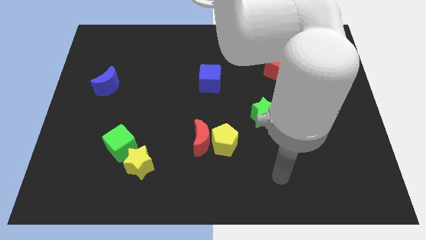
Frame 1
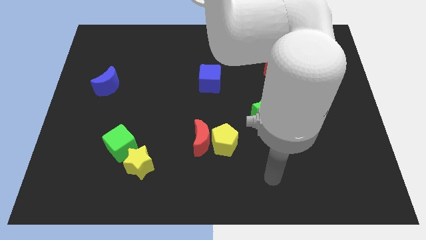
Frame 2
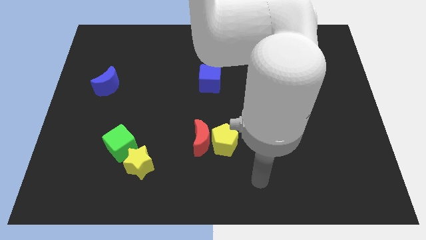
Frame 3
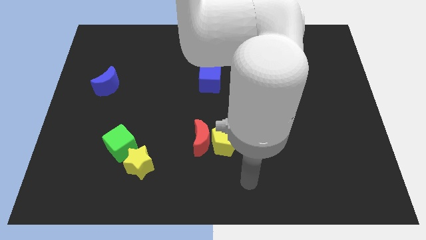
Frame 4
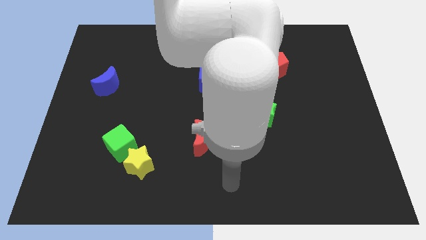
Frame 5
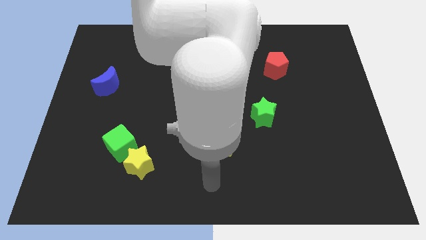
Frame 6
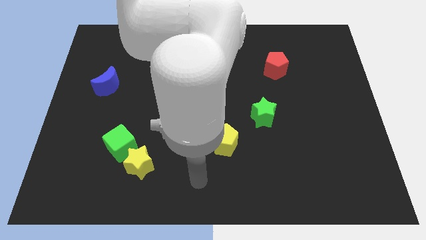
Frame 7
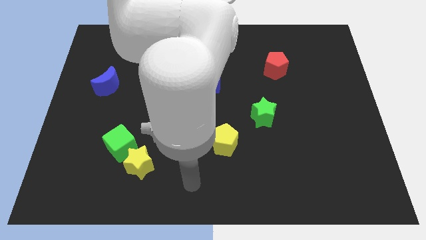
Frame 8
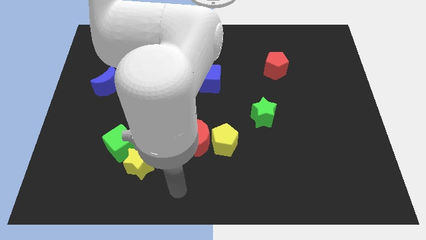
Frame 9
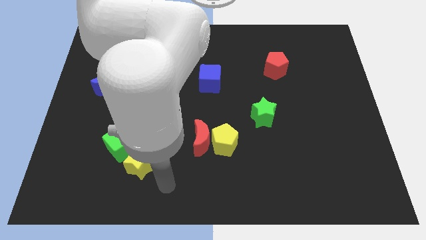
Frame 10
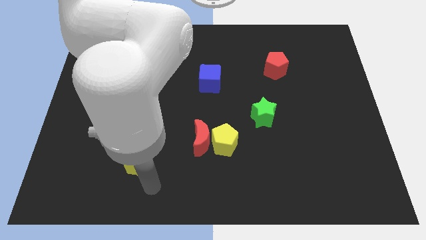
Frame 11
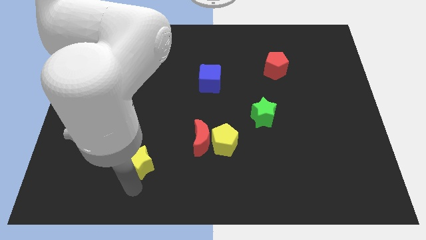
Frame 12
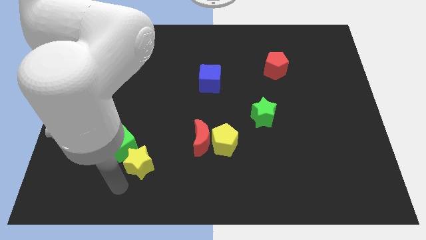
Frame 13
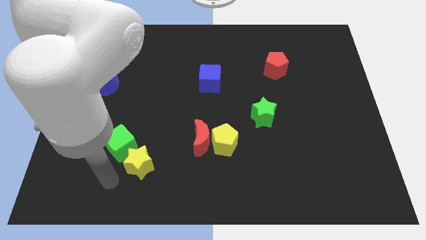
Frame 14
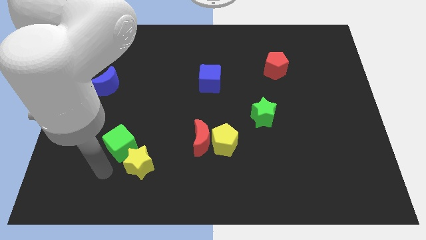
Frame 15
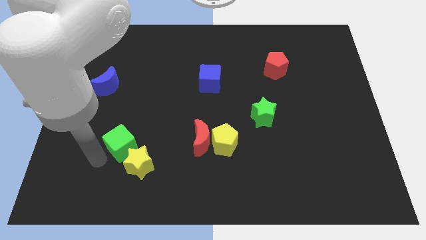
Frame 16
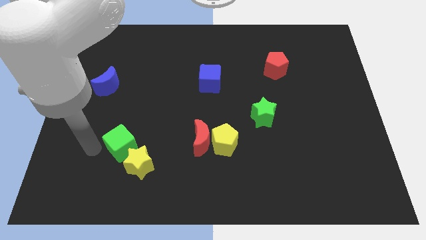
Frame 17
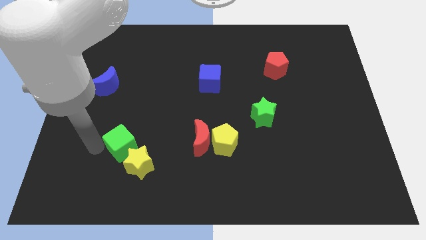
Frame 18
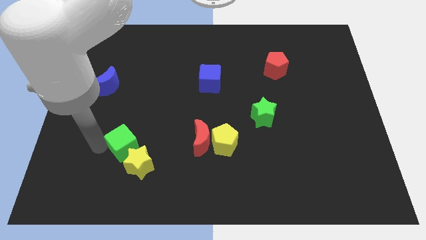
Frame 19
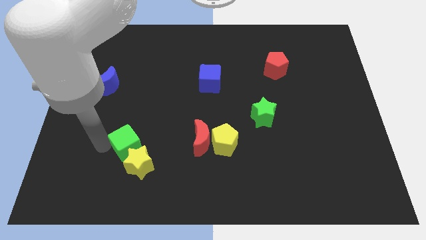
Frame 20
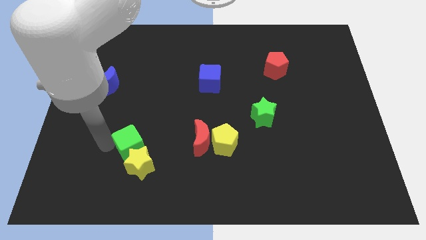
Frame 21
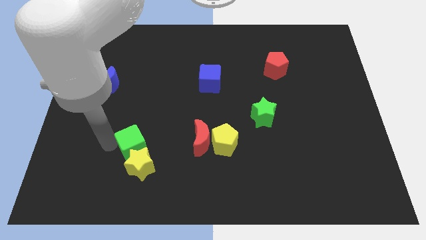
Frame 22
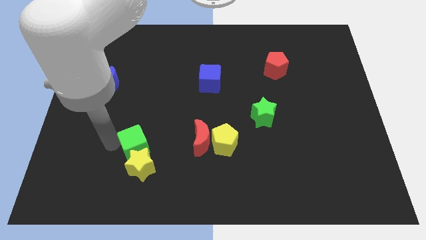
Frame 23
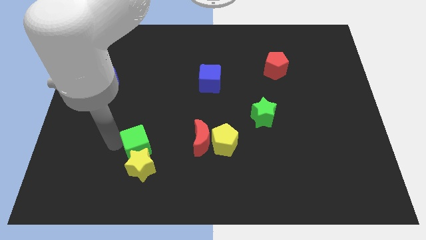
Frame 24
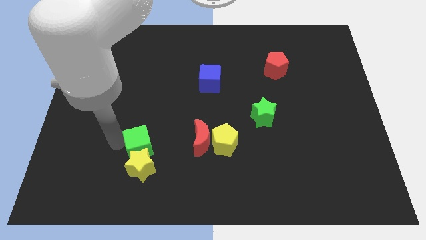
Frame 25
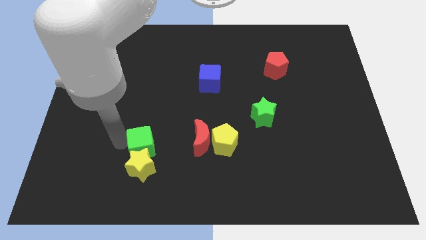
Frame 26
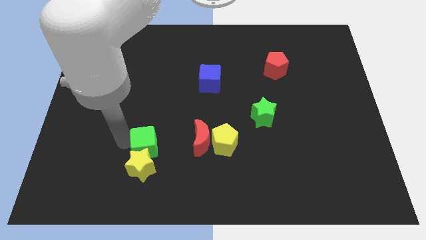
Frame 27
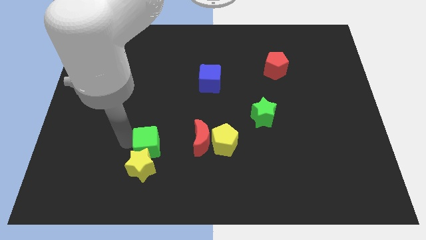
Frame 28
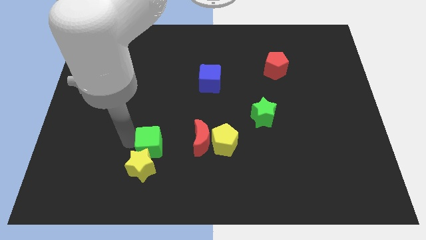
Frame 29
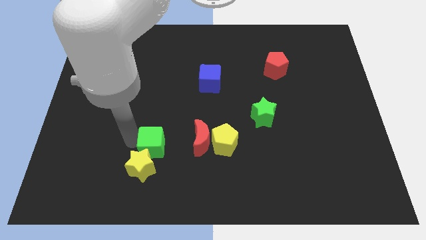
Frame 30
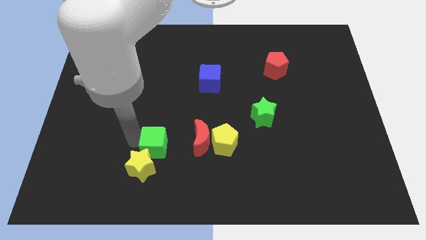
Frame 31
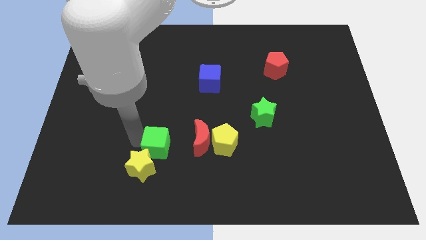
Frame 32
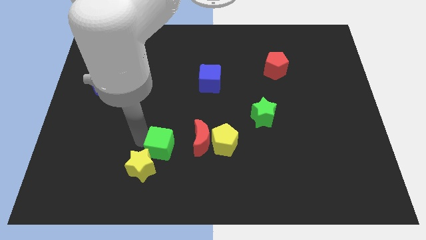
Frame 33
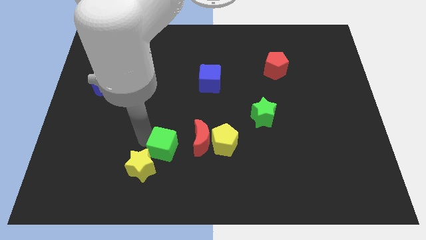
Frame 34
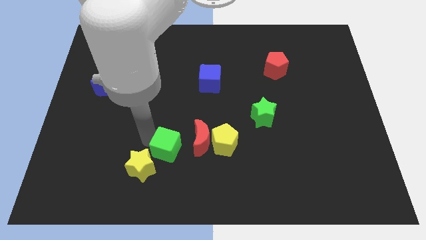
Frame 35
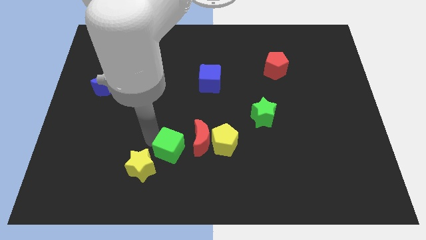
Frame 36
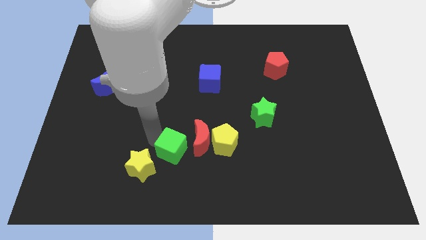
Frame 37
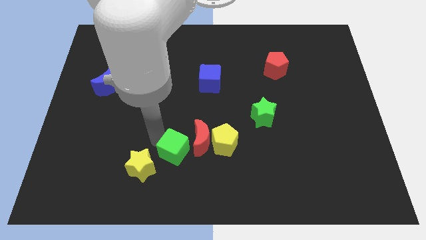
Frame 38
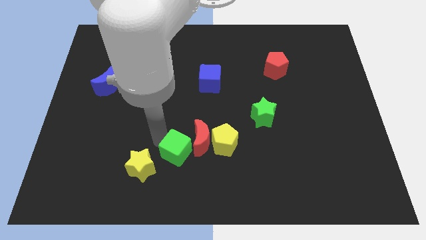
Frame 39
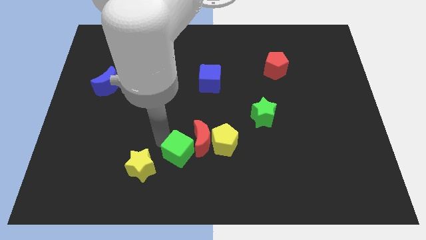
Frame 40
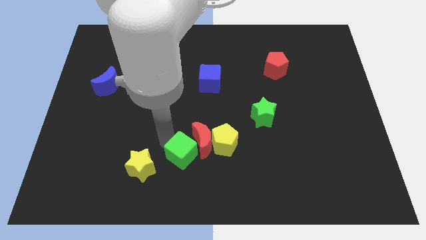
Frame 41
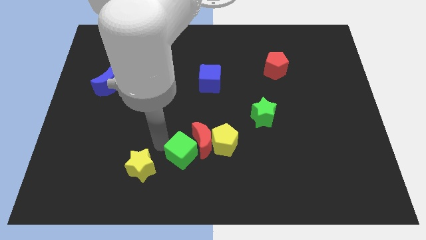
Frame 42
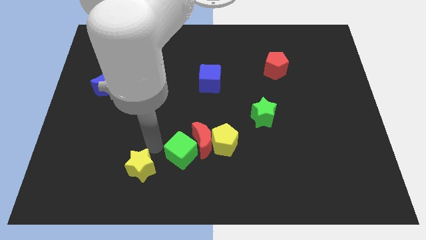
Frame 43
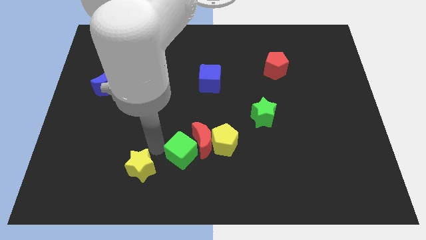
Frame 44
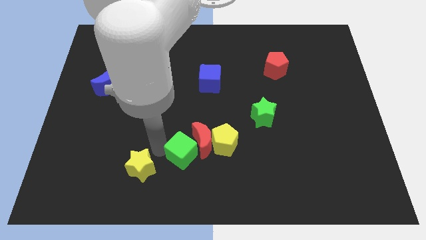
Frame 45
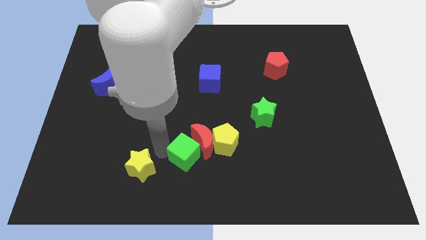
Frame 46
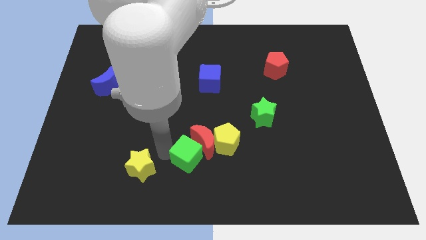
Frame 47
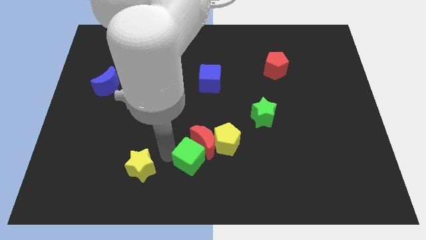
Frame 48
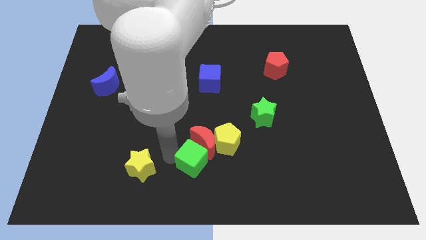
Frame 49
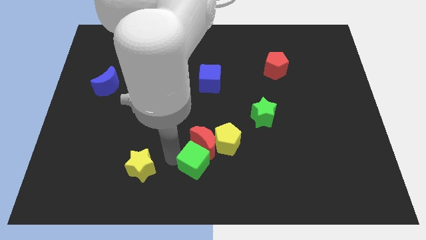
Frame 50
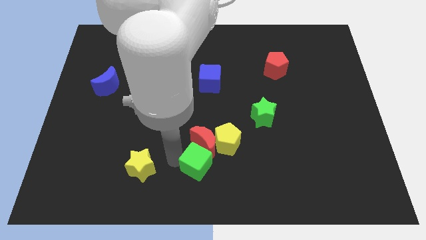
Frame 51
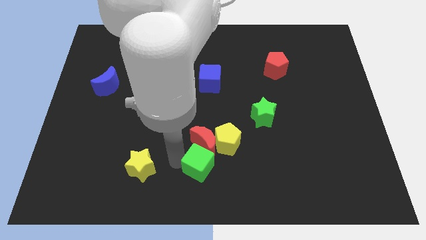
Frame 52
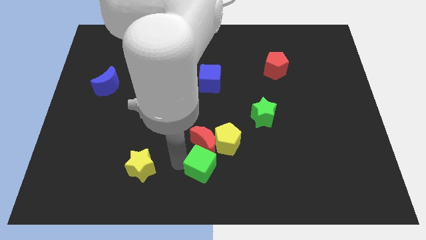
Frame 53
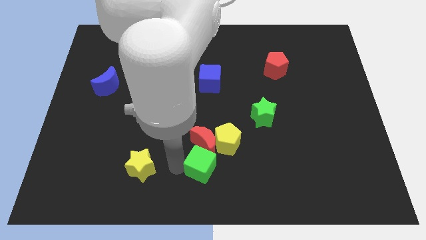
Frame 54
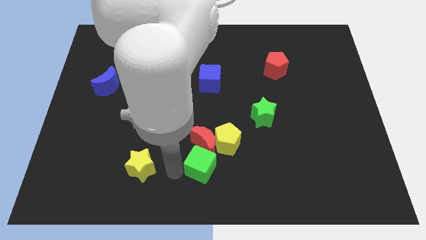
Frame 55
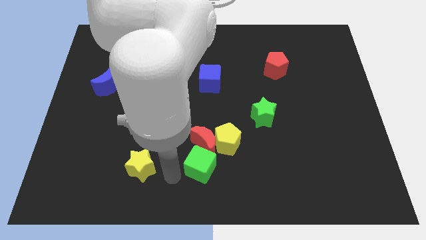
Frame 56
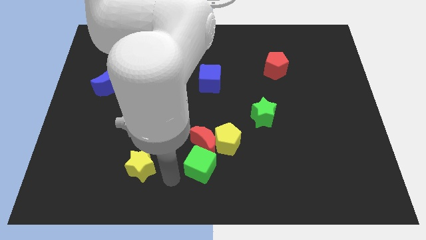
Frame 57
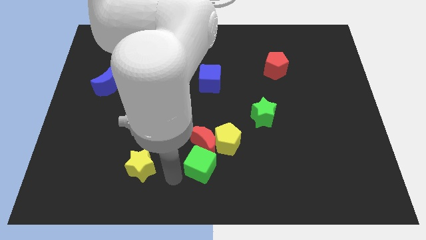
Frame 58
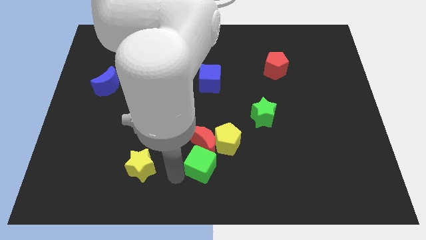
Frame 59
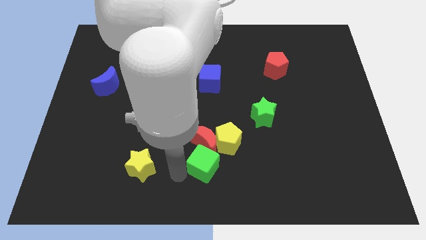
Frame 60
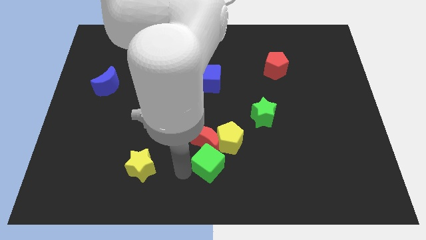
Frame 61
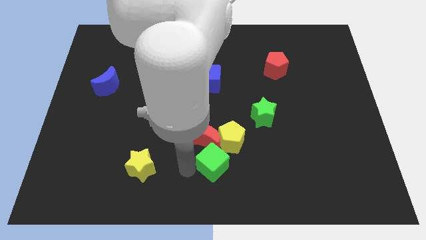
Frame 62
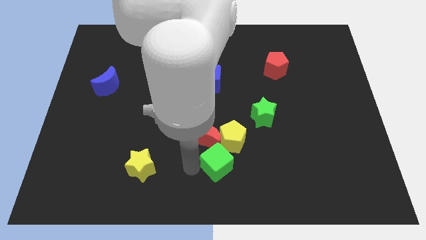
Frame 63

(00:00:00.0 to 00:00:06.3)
move the green cube right

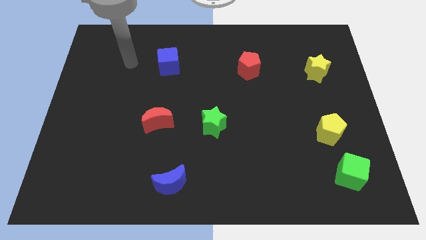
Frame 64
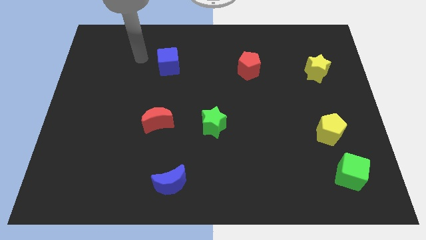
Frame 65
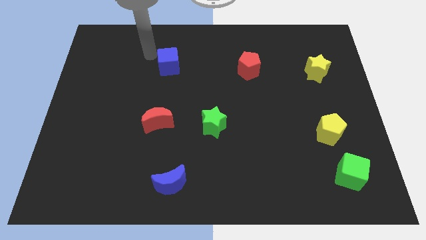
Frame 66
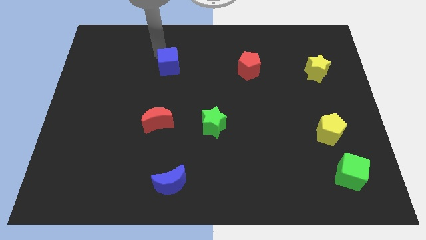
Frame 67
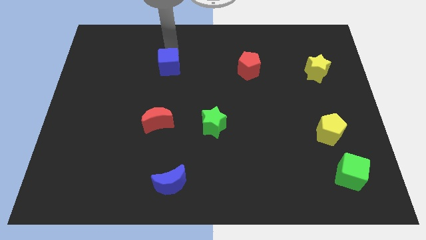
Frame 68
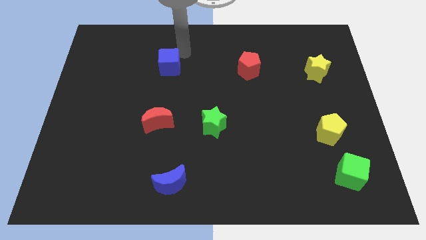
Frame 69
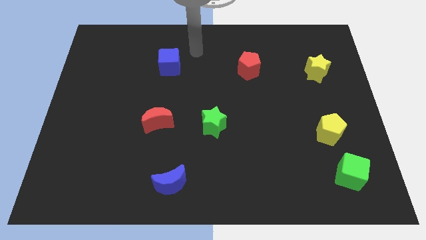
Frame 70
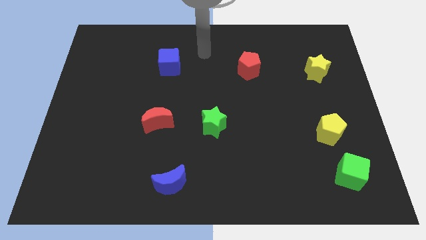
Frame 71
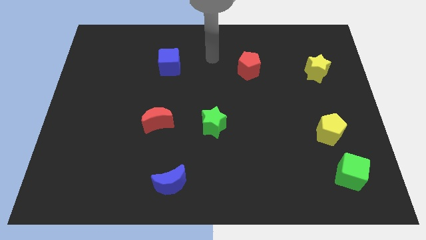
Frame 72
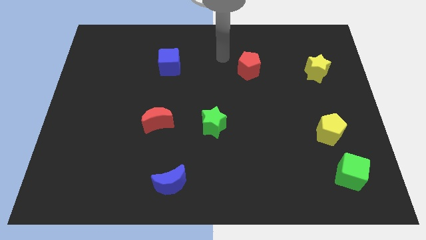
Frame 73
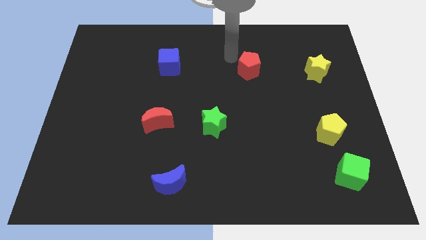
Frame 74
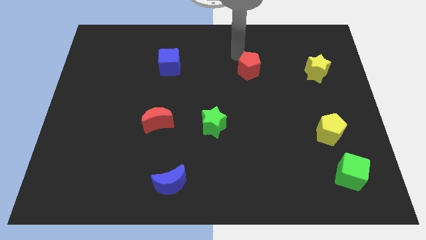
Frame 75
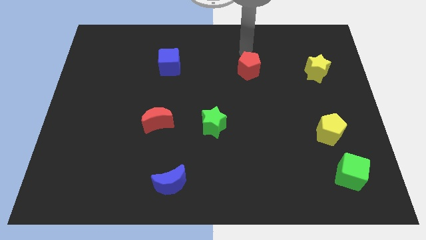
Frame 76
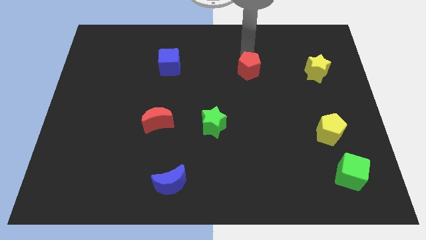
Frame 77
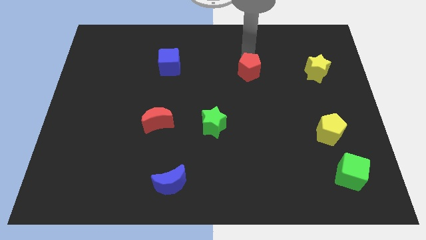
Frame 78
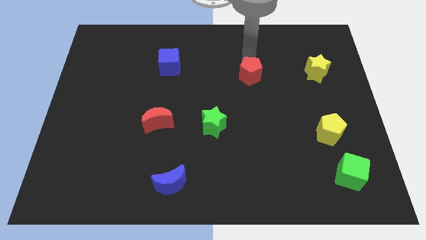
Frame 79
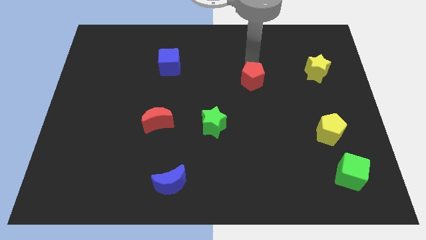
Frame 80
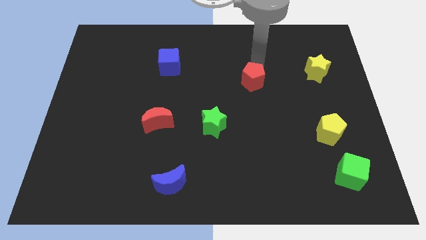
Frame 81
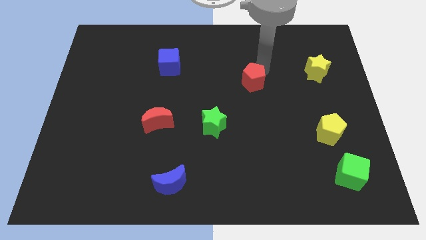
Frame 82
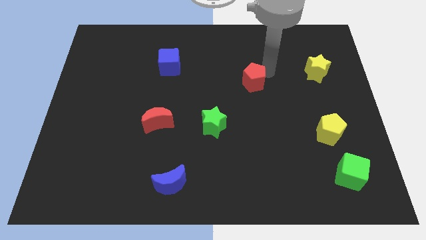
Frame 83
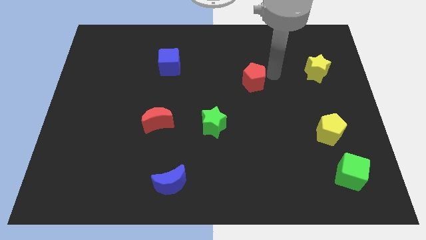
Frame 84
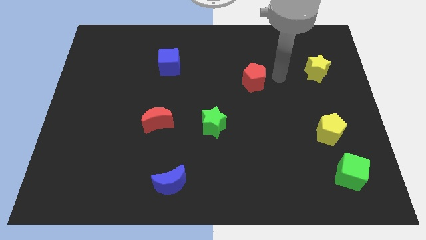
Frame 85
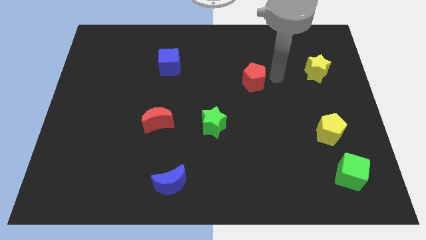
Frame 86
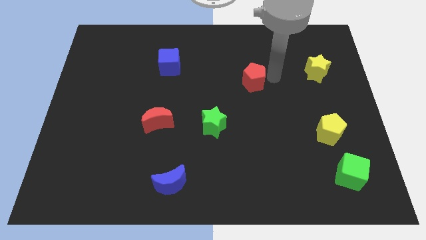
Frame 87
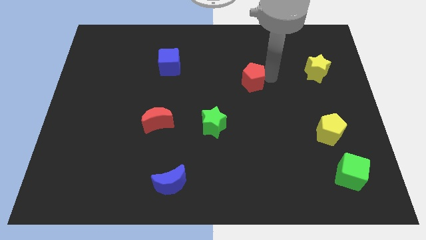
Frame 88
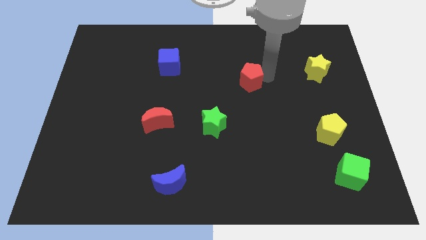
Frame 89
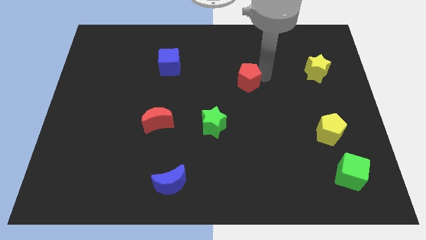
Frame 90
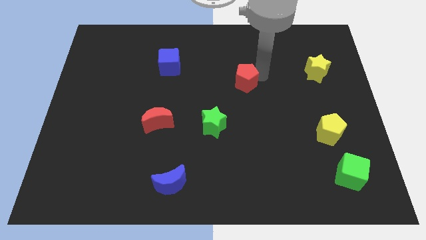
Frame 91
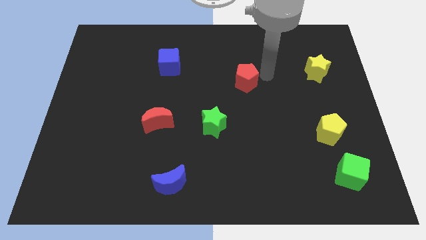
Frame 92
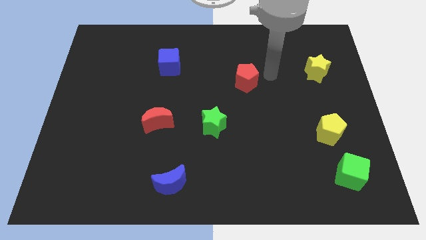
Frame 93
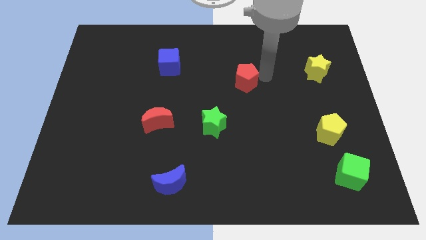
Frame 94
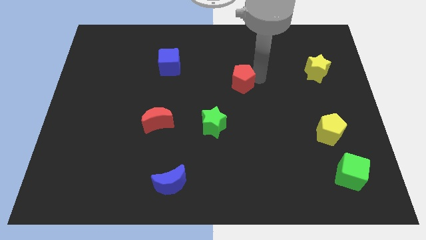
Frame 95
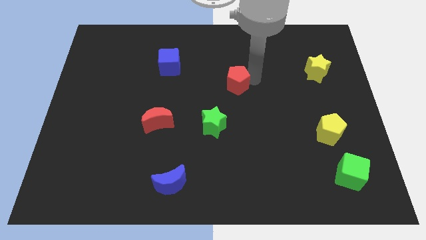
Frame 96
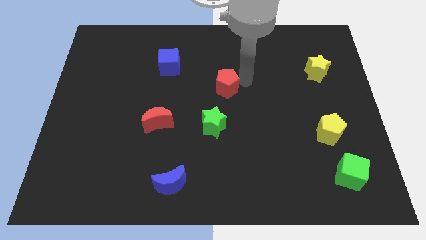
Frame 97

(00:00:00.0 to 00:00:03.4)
push the red pentagon downwards and then to the left a little
